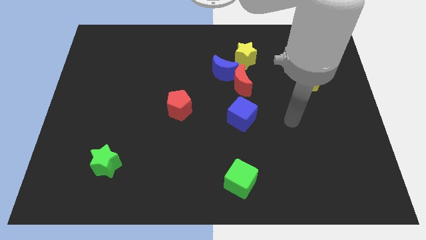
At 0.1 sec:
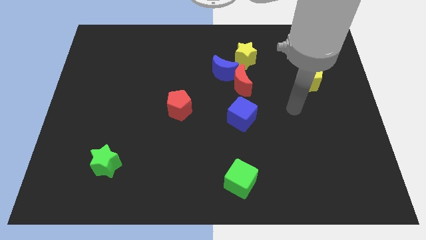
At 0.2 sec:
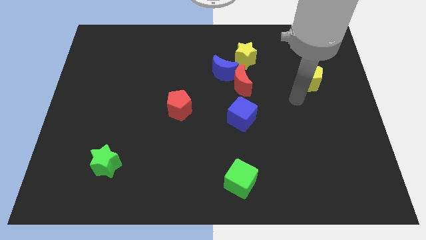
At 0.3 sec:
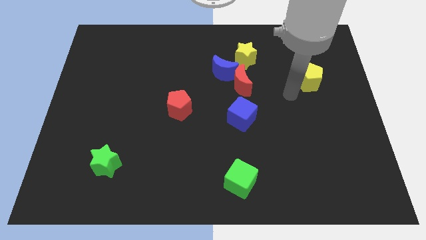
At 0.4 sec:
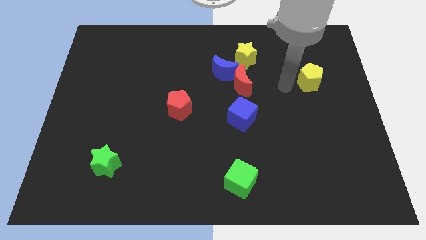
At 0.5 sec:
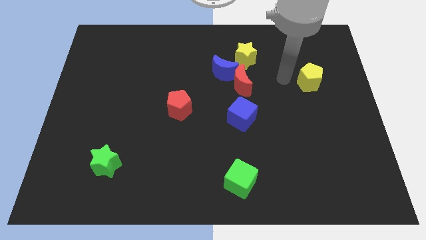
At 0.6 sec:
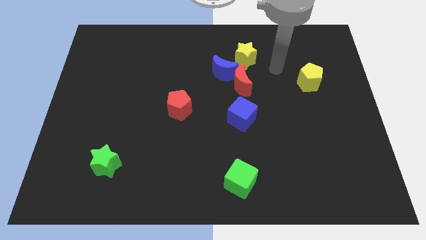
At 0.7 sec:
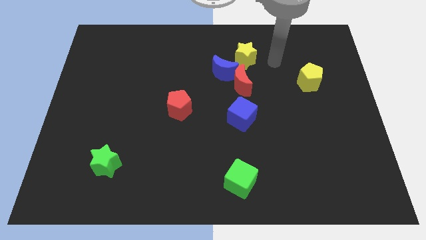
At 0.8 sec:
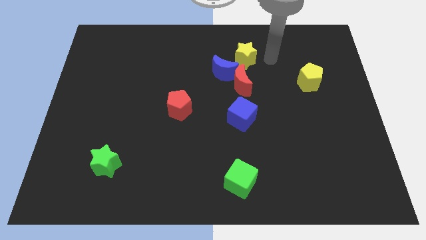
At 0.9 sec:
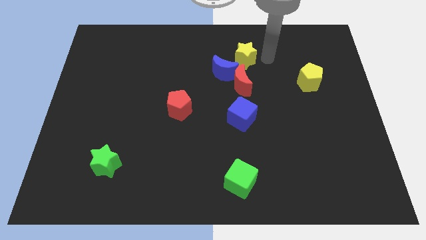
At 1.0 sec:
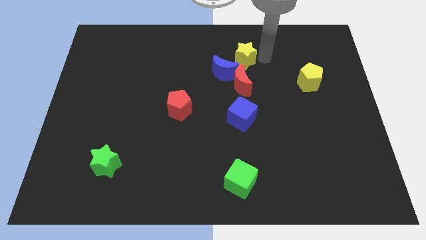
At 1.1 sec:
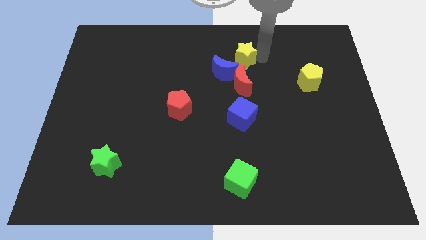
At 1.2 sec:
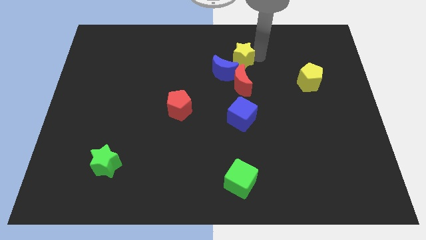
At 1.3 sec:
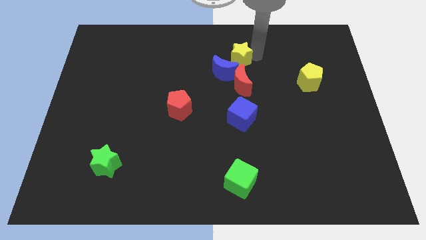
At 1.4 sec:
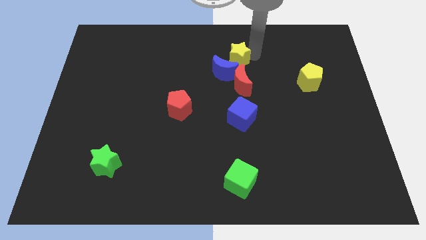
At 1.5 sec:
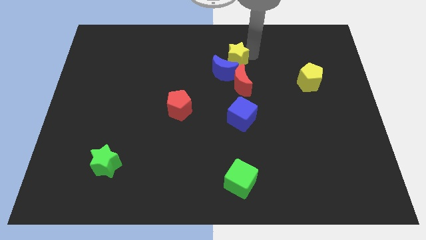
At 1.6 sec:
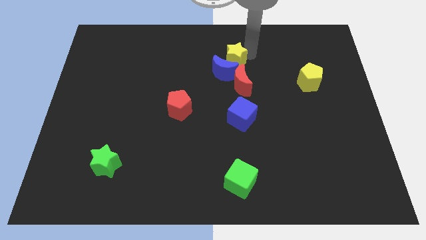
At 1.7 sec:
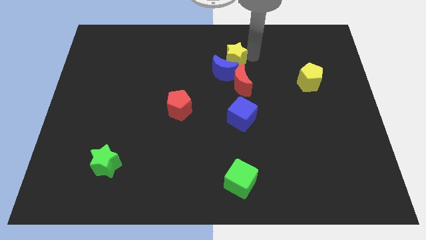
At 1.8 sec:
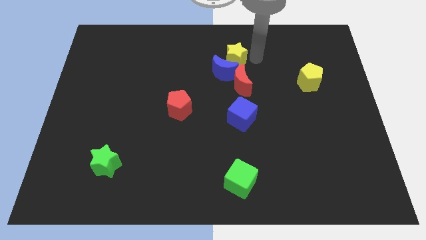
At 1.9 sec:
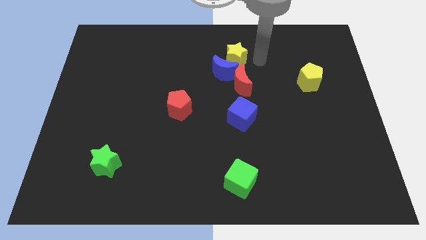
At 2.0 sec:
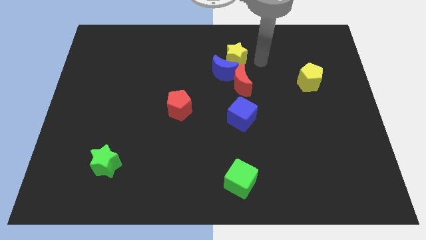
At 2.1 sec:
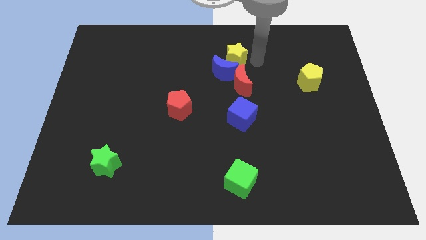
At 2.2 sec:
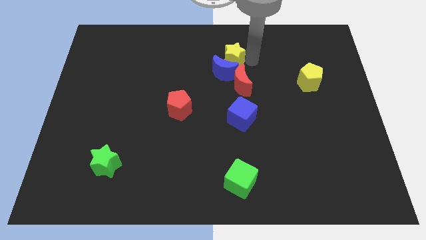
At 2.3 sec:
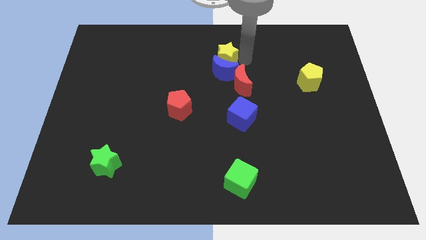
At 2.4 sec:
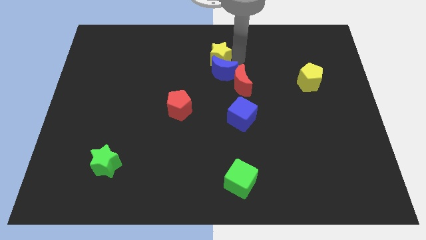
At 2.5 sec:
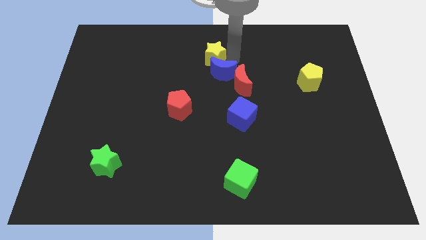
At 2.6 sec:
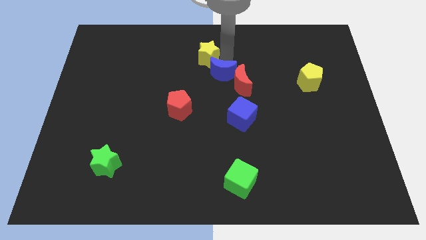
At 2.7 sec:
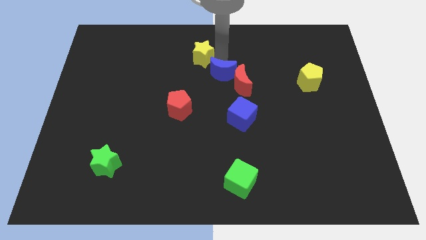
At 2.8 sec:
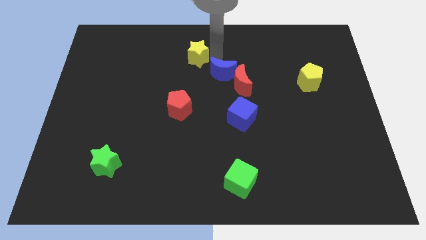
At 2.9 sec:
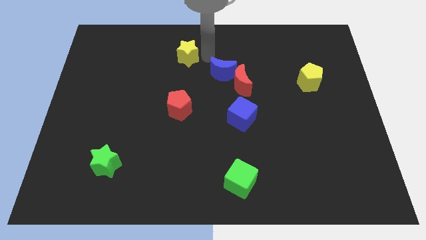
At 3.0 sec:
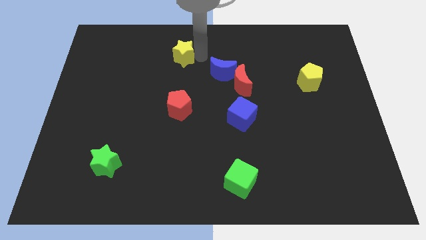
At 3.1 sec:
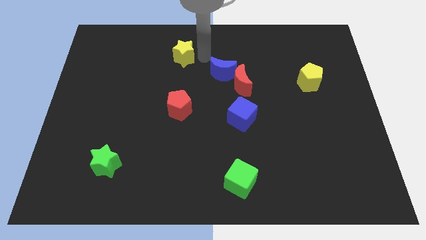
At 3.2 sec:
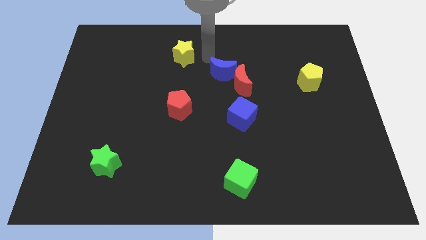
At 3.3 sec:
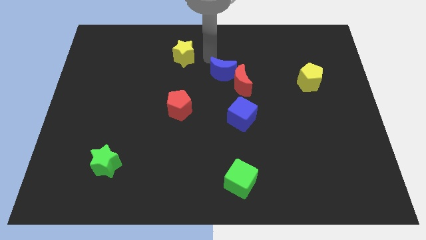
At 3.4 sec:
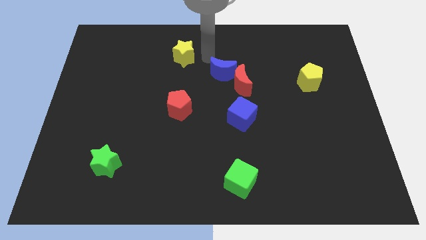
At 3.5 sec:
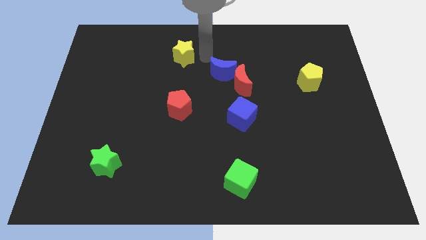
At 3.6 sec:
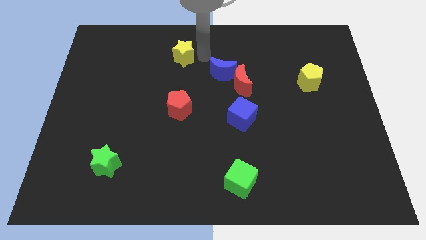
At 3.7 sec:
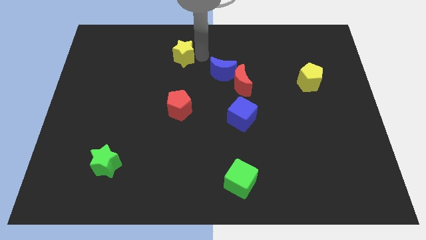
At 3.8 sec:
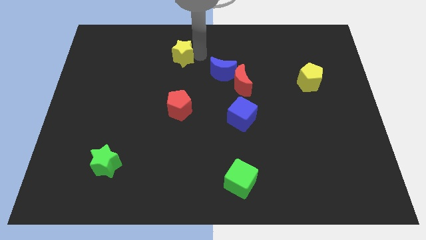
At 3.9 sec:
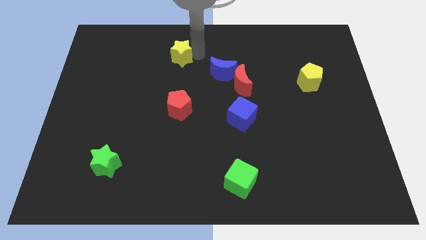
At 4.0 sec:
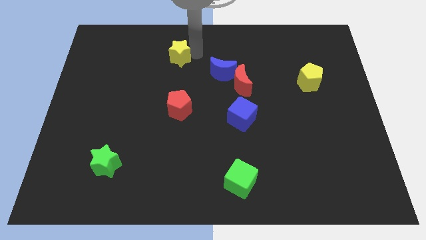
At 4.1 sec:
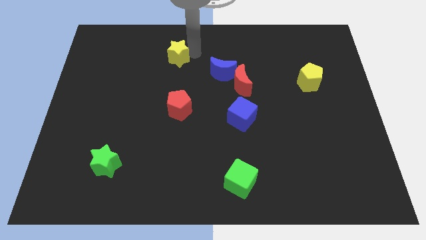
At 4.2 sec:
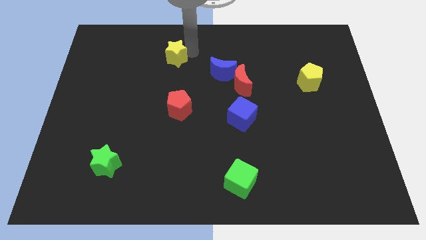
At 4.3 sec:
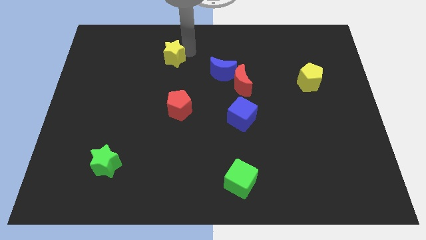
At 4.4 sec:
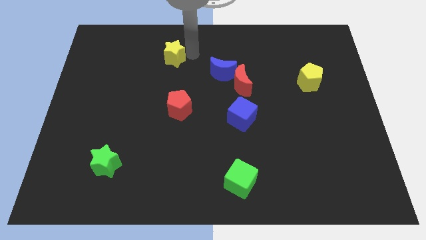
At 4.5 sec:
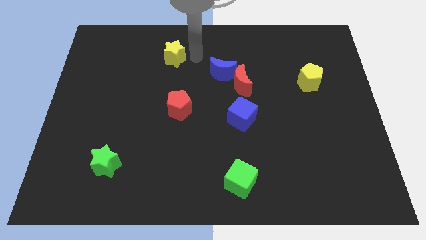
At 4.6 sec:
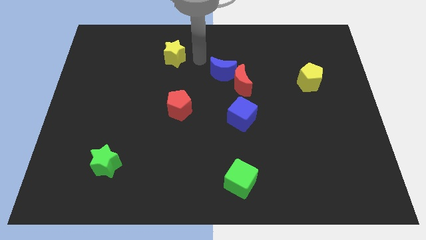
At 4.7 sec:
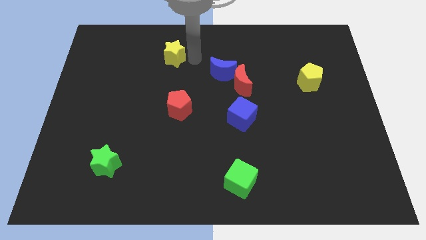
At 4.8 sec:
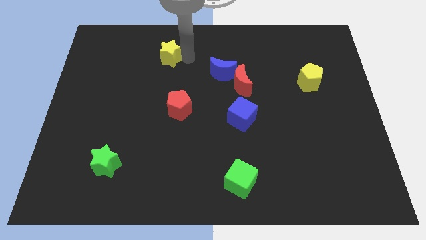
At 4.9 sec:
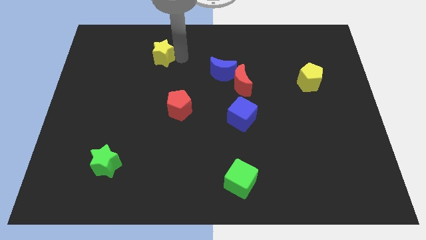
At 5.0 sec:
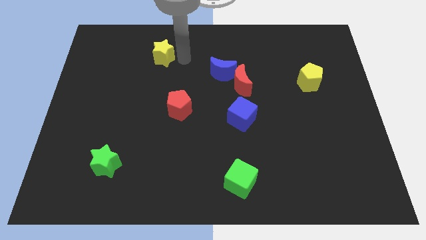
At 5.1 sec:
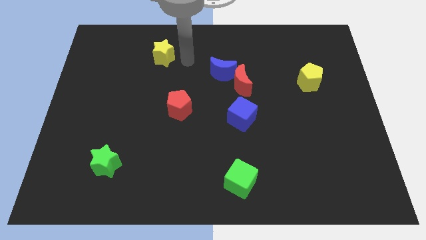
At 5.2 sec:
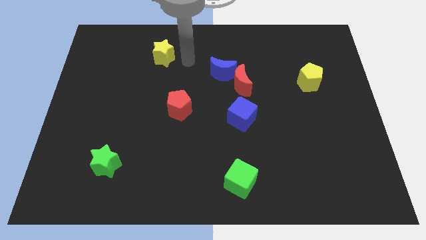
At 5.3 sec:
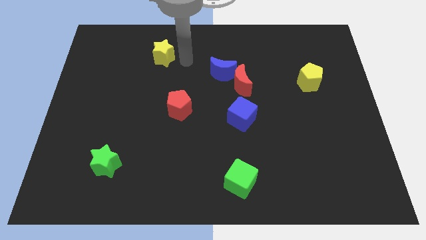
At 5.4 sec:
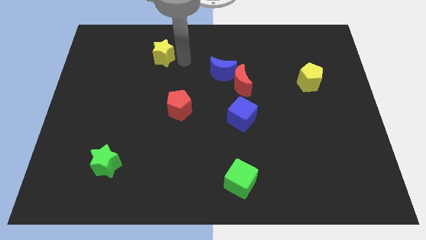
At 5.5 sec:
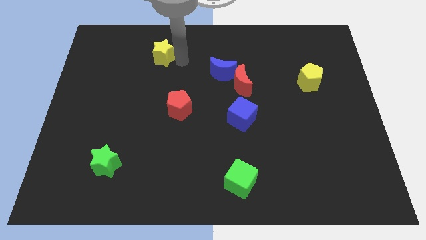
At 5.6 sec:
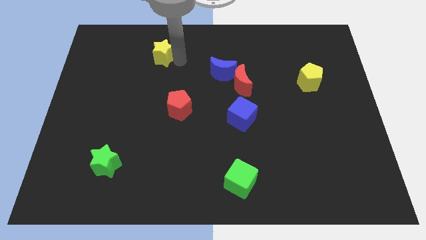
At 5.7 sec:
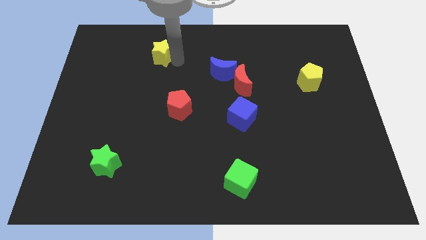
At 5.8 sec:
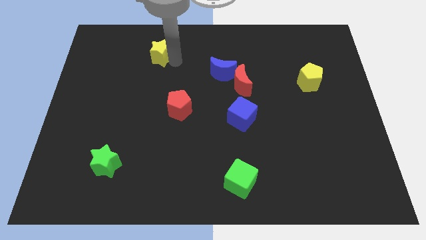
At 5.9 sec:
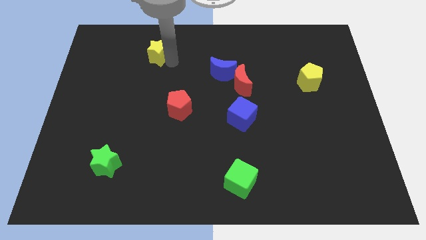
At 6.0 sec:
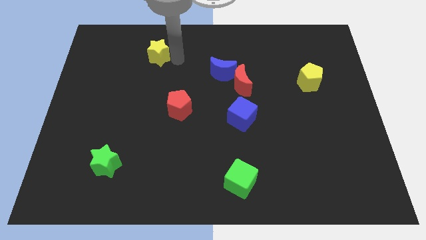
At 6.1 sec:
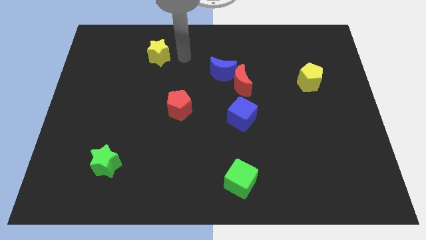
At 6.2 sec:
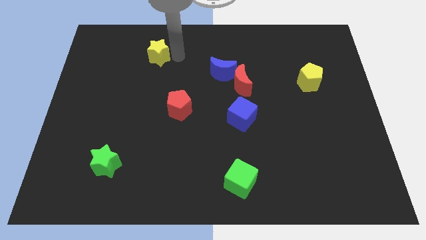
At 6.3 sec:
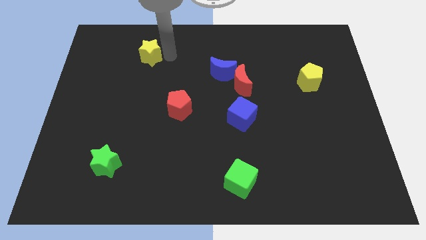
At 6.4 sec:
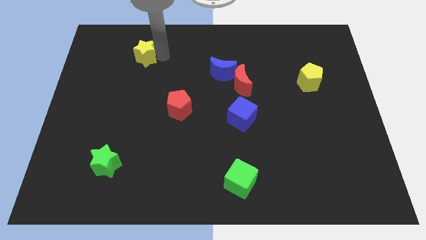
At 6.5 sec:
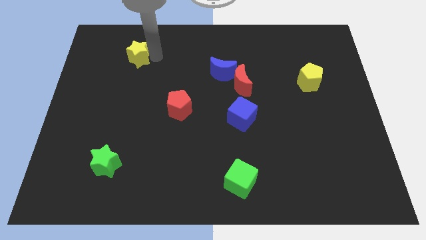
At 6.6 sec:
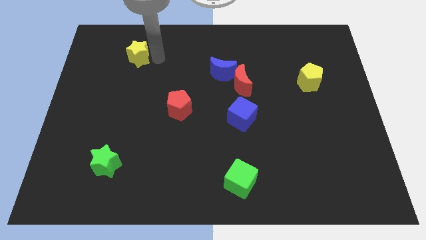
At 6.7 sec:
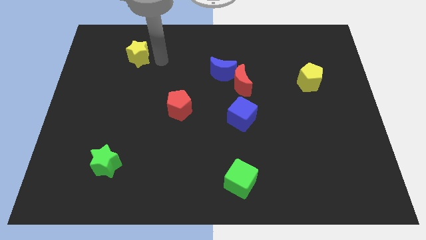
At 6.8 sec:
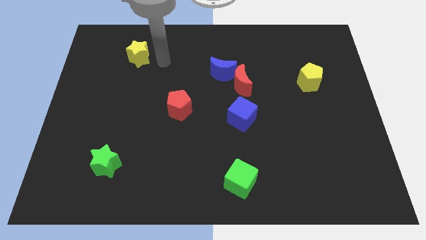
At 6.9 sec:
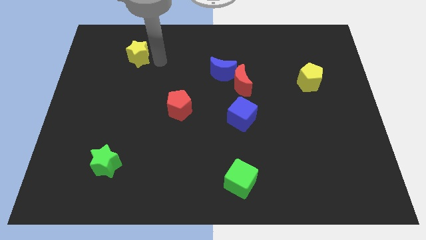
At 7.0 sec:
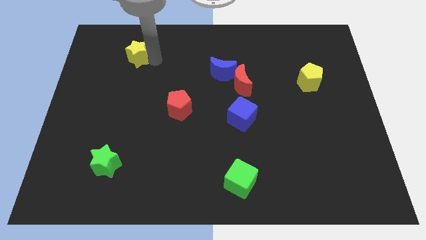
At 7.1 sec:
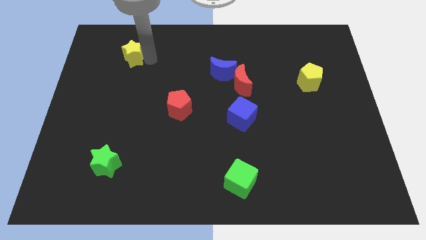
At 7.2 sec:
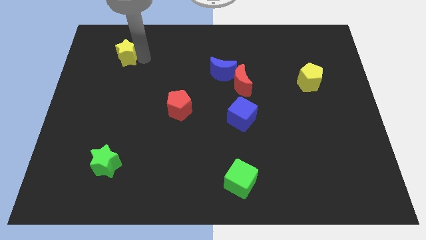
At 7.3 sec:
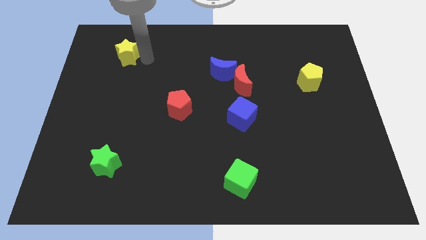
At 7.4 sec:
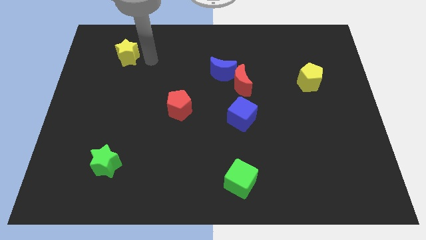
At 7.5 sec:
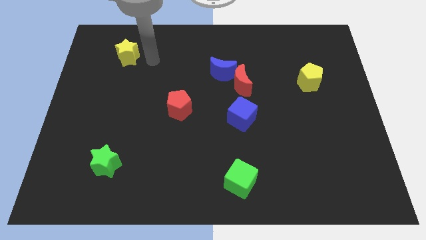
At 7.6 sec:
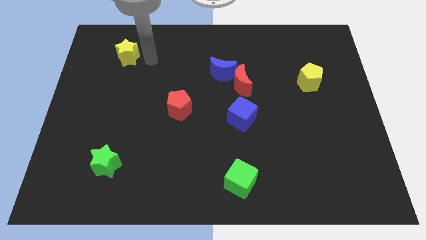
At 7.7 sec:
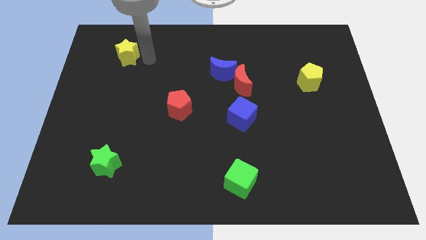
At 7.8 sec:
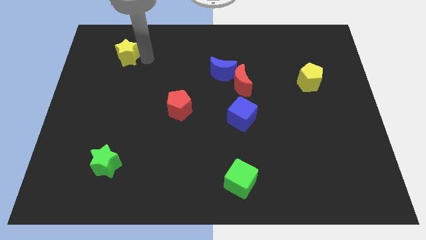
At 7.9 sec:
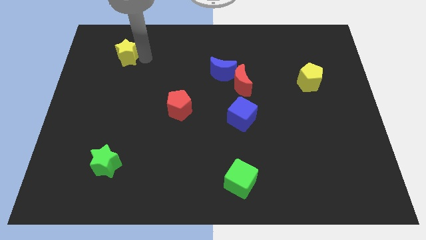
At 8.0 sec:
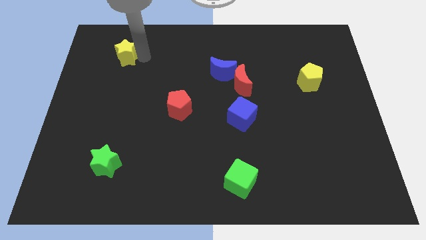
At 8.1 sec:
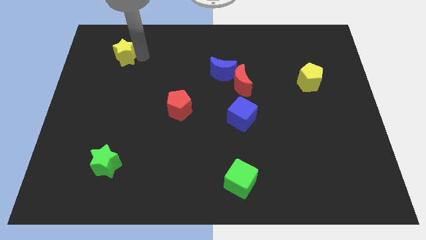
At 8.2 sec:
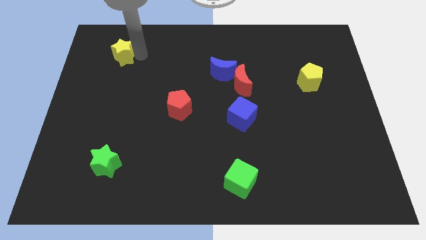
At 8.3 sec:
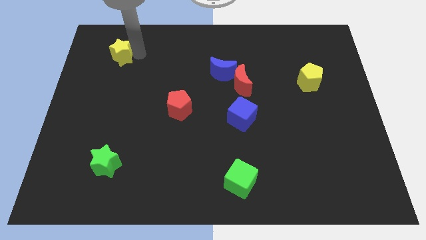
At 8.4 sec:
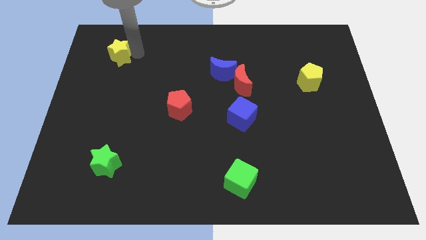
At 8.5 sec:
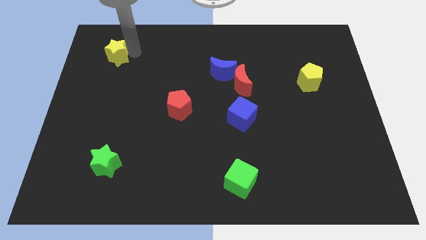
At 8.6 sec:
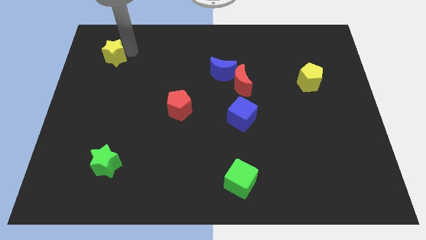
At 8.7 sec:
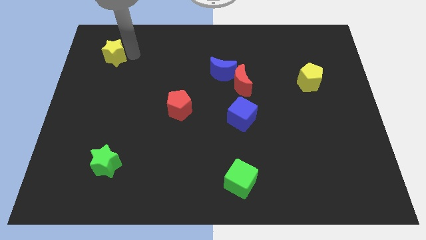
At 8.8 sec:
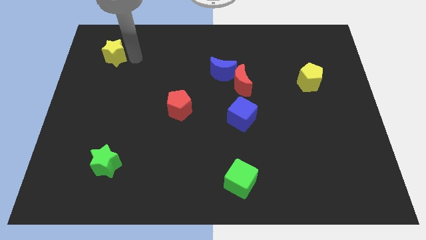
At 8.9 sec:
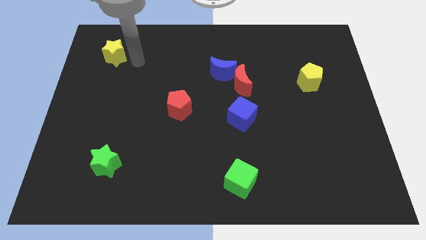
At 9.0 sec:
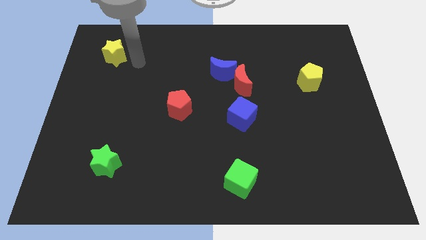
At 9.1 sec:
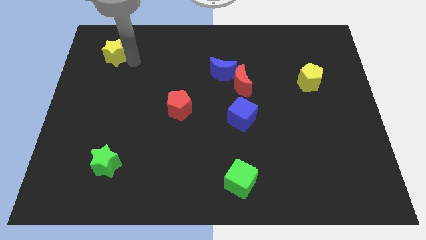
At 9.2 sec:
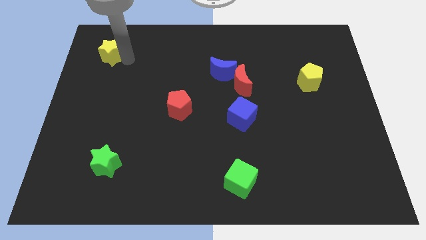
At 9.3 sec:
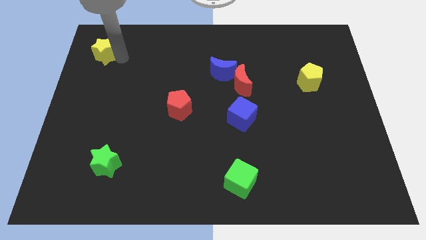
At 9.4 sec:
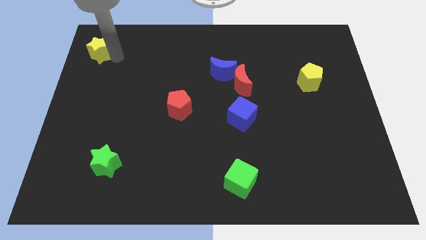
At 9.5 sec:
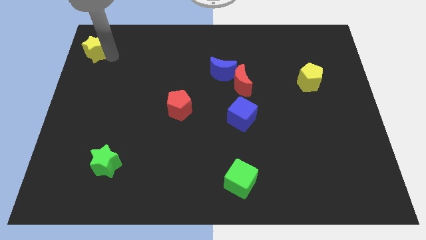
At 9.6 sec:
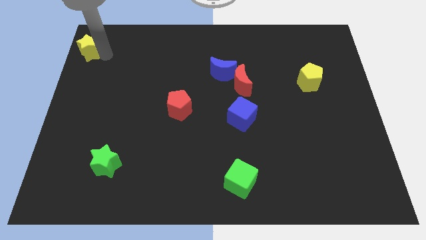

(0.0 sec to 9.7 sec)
push the yellow star to the top left
